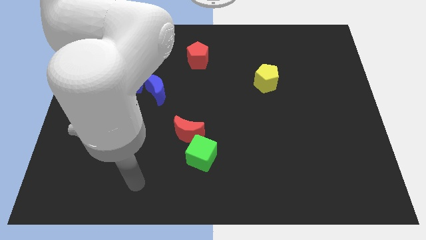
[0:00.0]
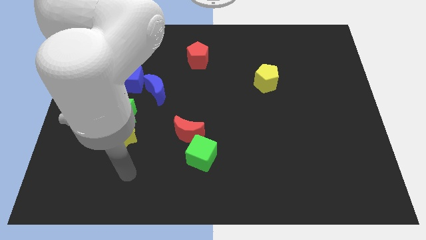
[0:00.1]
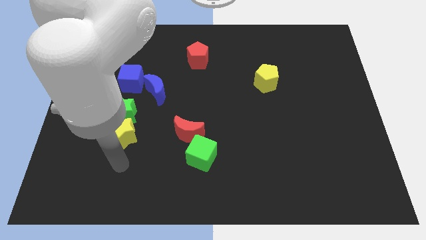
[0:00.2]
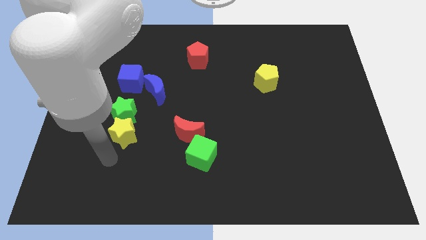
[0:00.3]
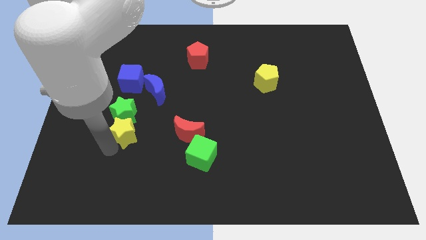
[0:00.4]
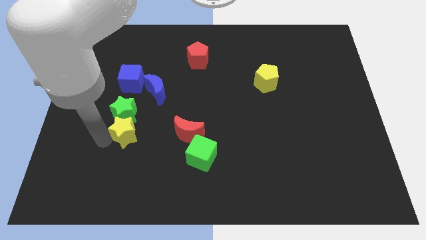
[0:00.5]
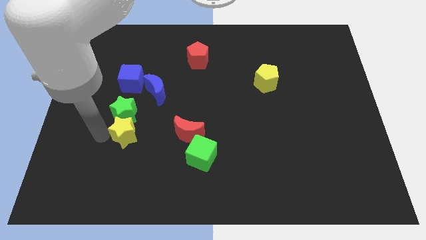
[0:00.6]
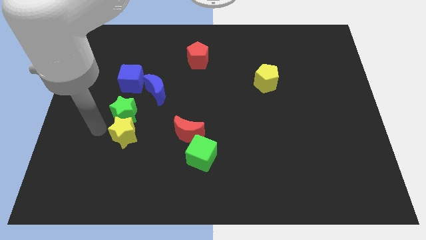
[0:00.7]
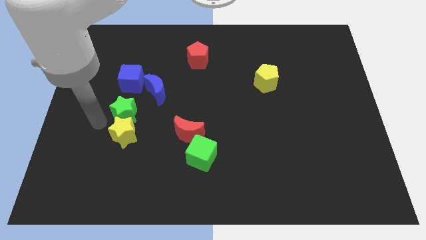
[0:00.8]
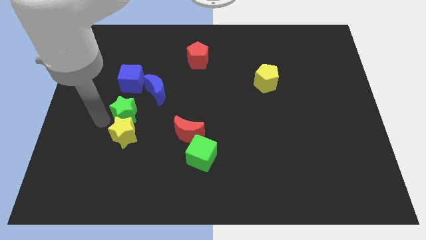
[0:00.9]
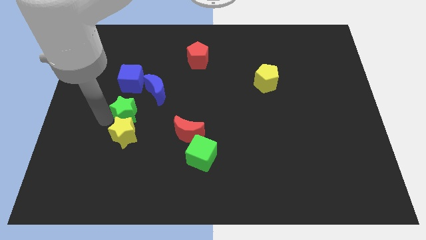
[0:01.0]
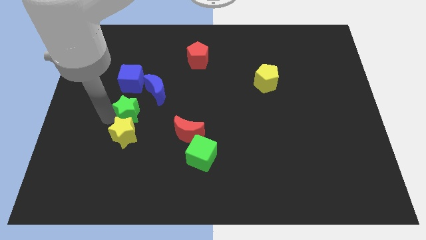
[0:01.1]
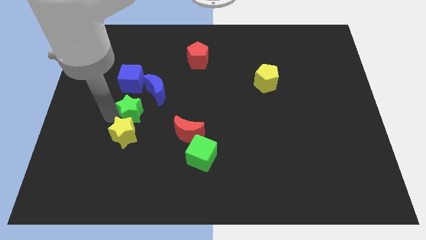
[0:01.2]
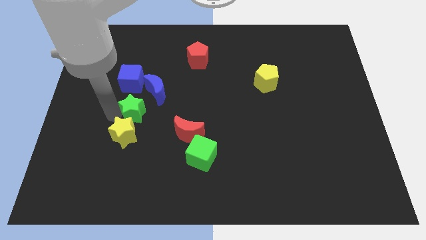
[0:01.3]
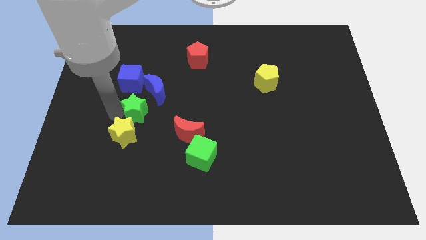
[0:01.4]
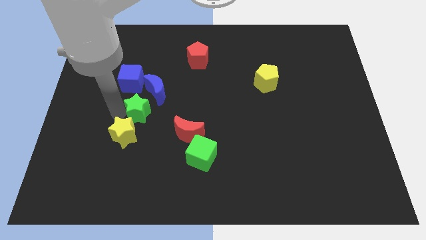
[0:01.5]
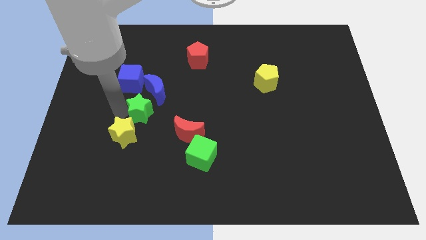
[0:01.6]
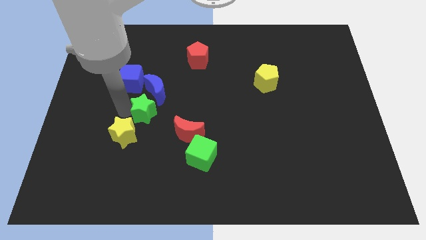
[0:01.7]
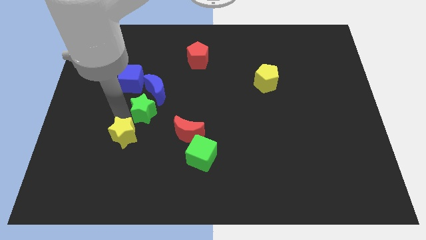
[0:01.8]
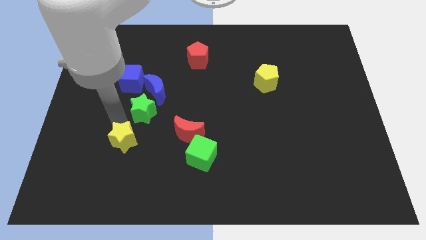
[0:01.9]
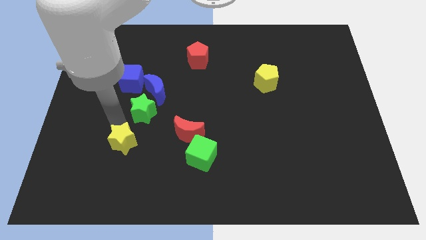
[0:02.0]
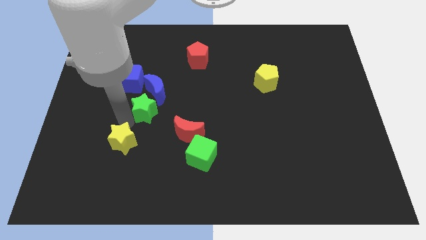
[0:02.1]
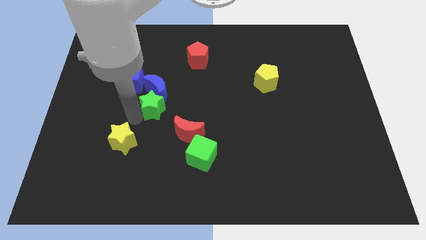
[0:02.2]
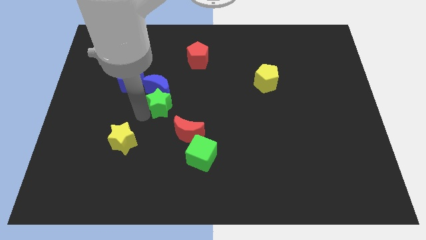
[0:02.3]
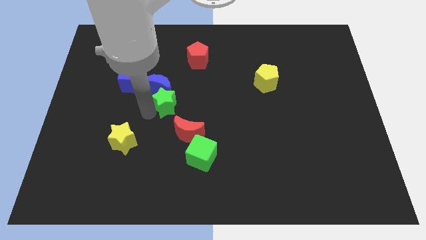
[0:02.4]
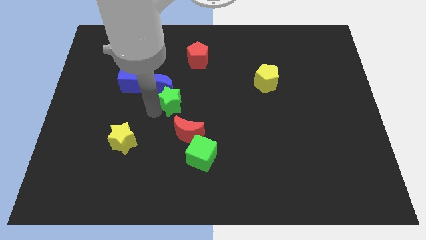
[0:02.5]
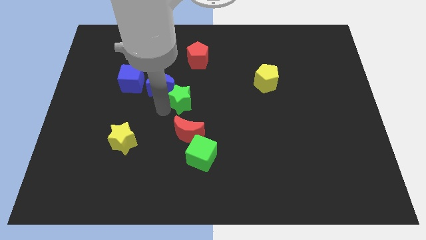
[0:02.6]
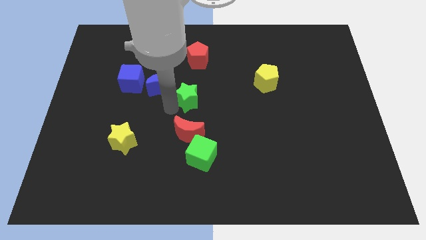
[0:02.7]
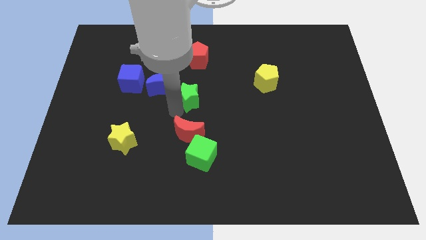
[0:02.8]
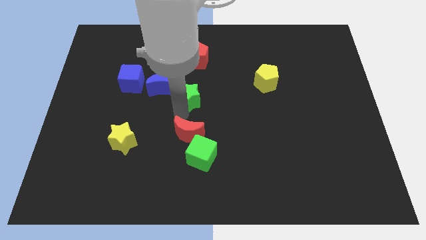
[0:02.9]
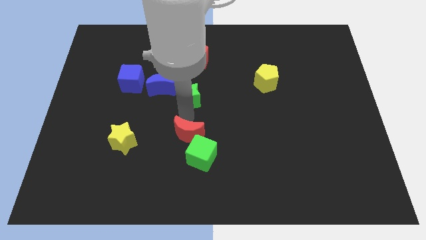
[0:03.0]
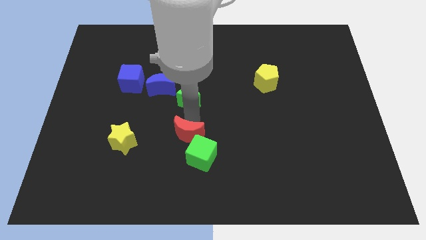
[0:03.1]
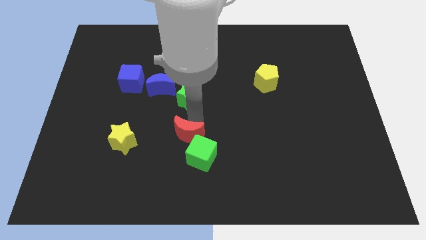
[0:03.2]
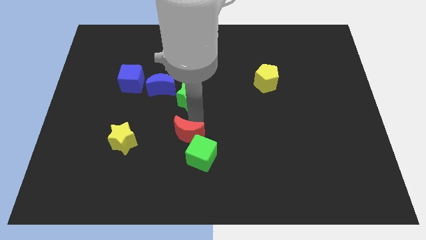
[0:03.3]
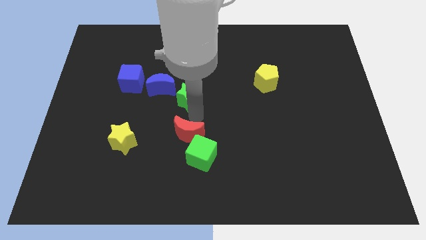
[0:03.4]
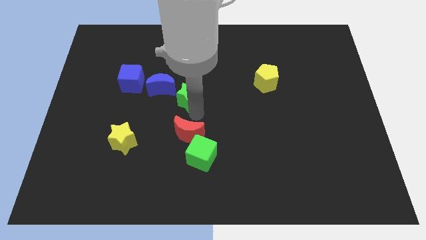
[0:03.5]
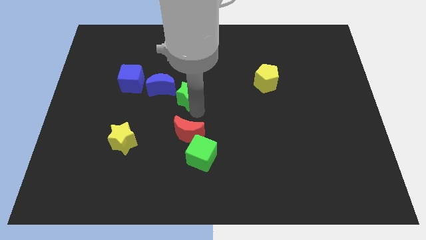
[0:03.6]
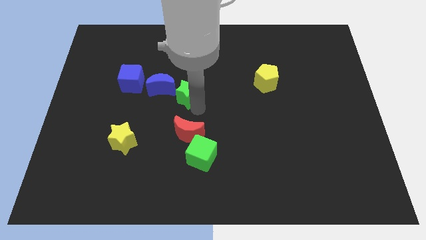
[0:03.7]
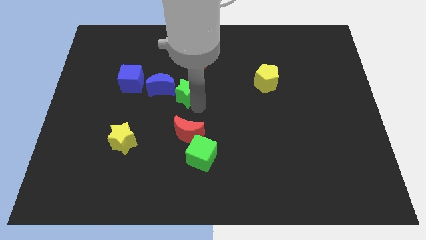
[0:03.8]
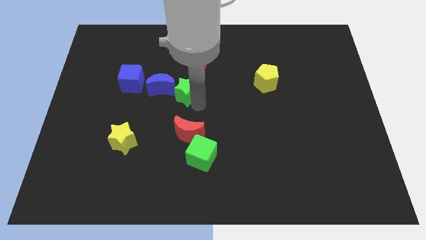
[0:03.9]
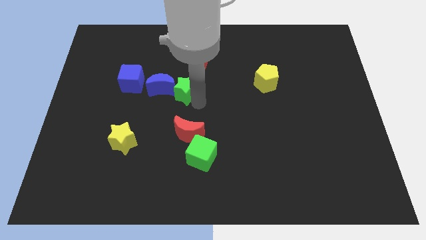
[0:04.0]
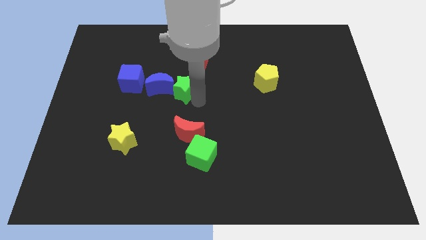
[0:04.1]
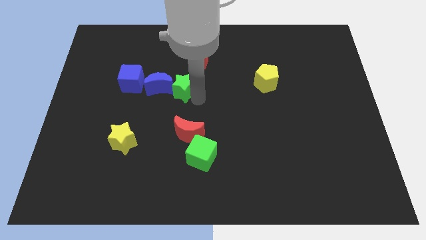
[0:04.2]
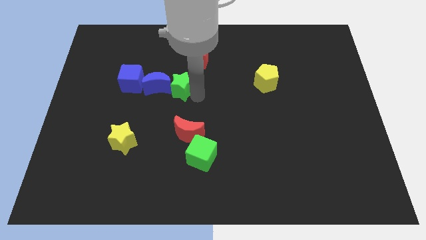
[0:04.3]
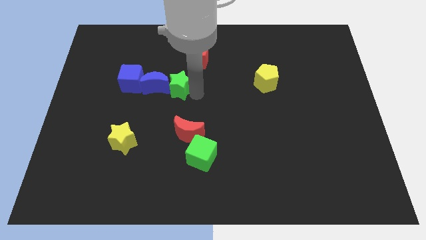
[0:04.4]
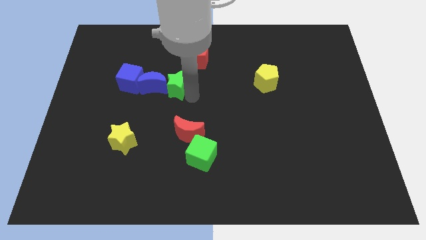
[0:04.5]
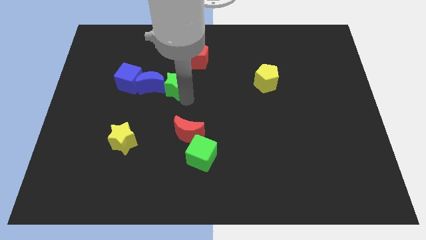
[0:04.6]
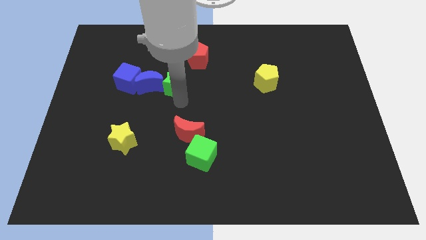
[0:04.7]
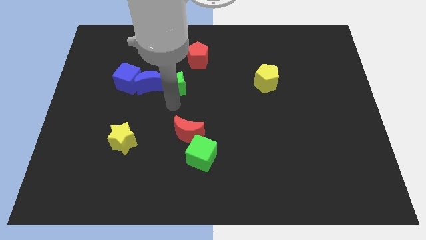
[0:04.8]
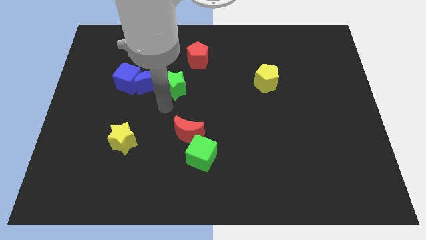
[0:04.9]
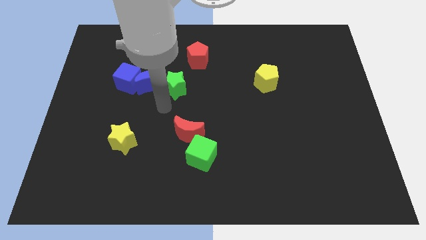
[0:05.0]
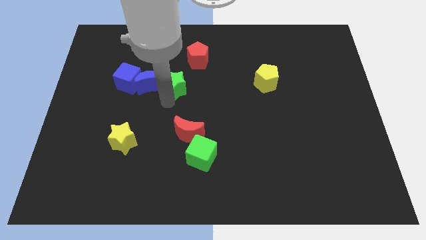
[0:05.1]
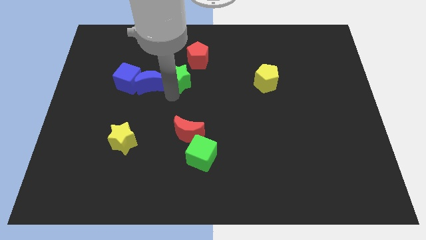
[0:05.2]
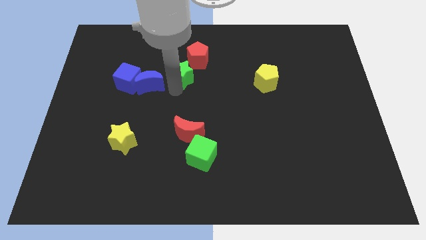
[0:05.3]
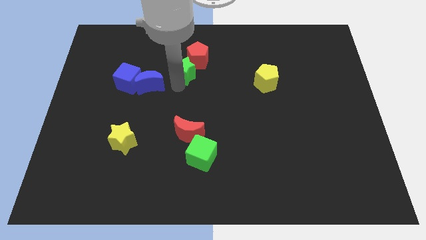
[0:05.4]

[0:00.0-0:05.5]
put the green star towards the red pentagon

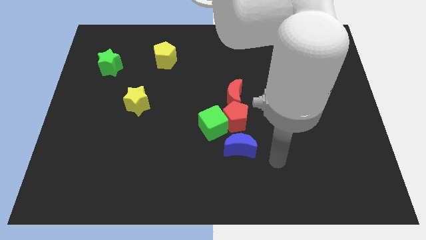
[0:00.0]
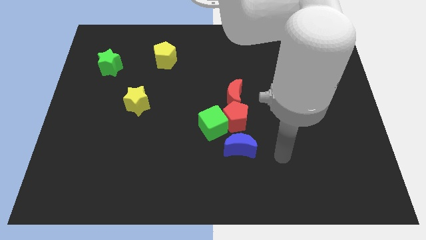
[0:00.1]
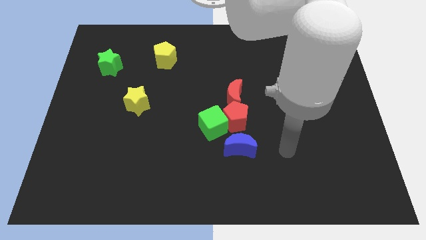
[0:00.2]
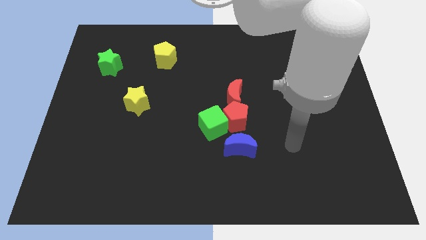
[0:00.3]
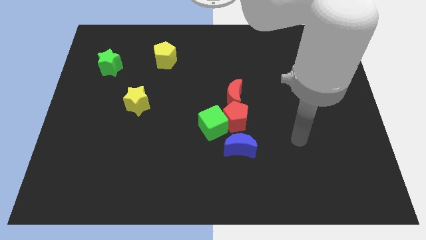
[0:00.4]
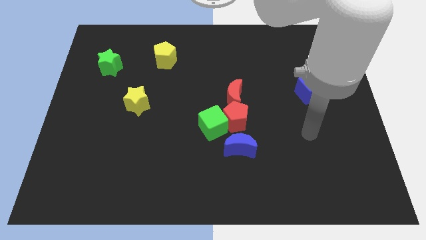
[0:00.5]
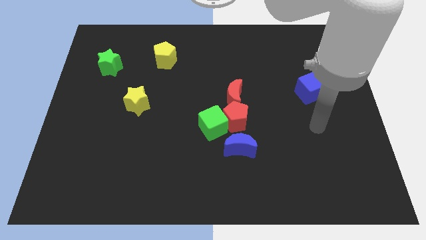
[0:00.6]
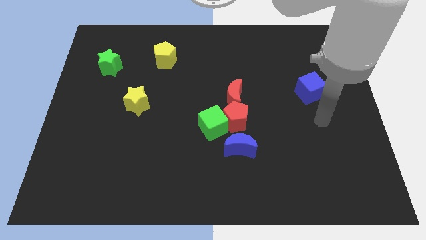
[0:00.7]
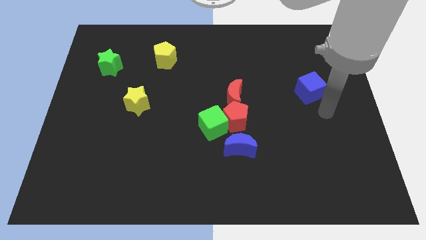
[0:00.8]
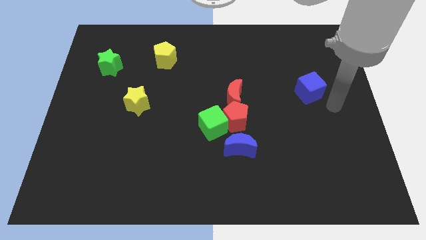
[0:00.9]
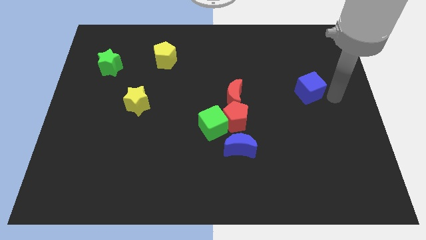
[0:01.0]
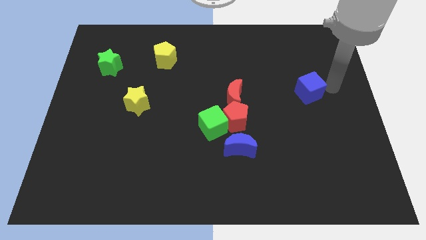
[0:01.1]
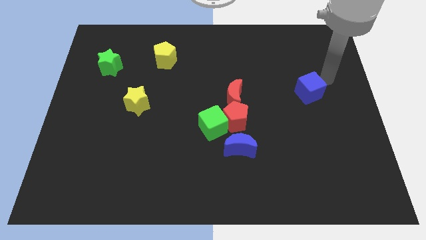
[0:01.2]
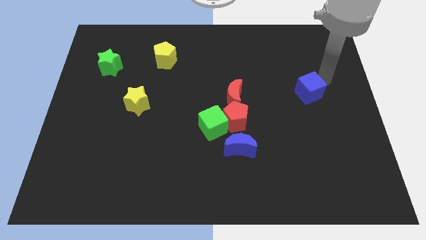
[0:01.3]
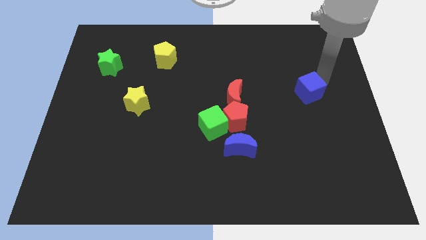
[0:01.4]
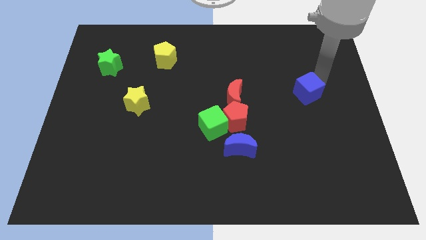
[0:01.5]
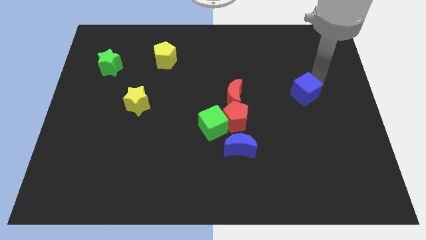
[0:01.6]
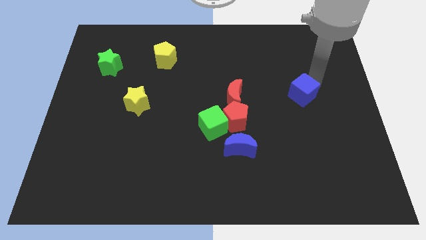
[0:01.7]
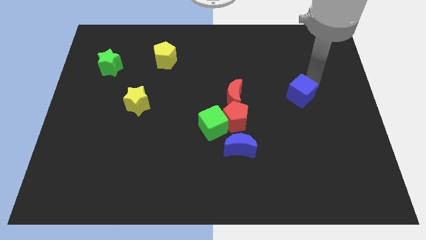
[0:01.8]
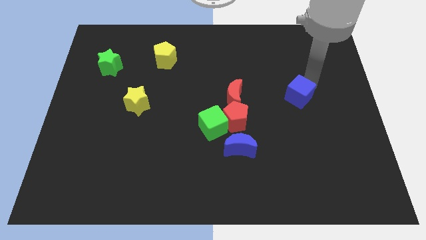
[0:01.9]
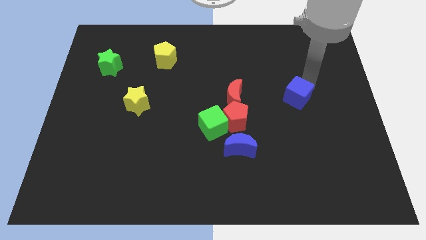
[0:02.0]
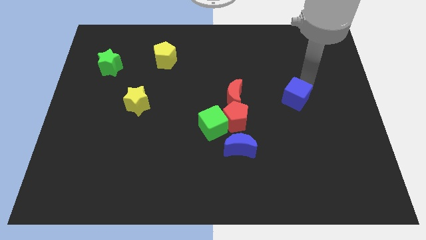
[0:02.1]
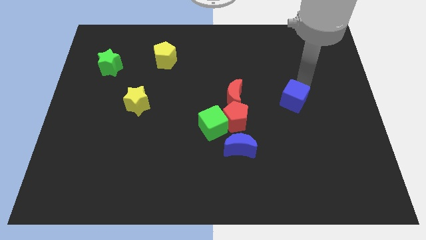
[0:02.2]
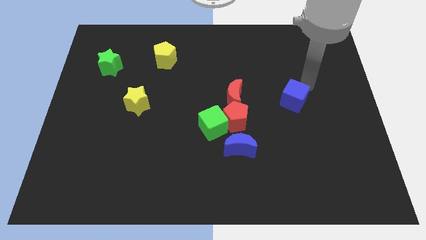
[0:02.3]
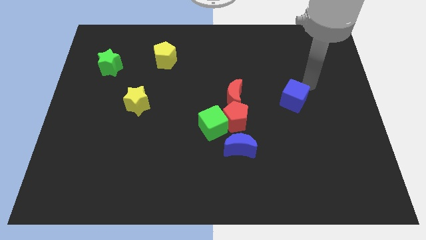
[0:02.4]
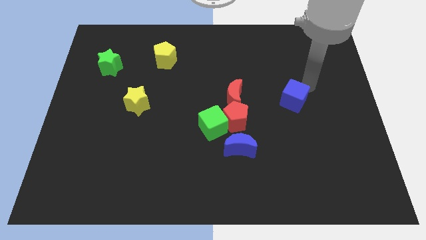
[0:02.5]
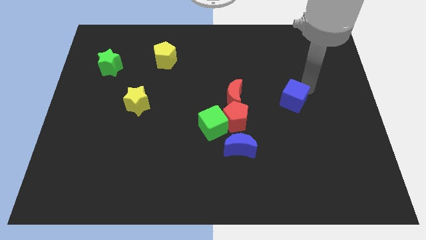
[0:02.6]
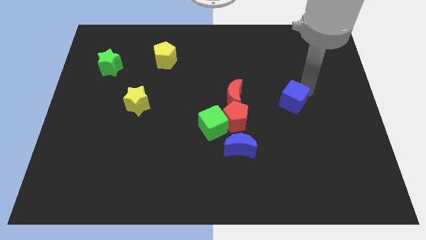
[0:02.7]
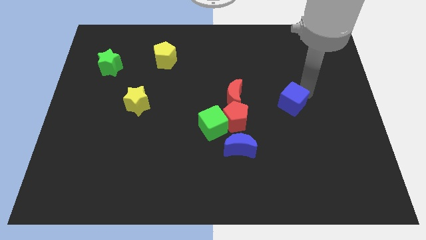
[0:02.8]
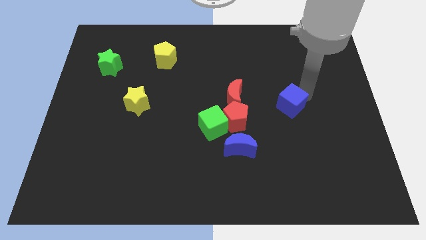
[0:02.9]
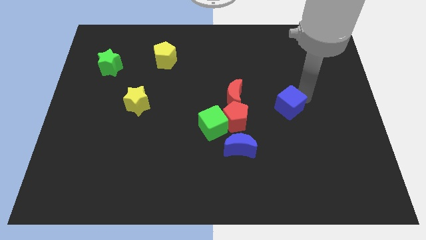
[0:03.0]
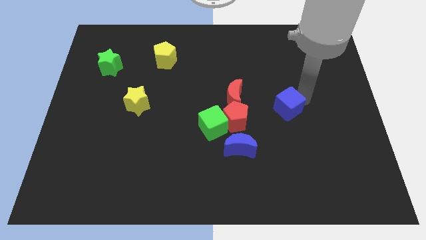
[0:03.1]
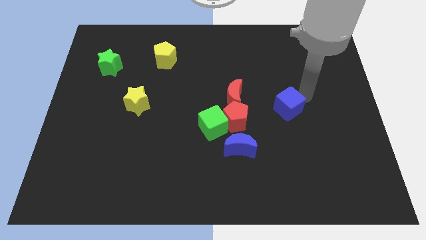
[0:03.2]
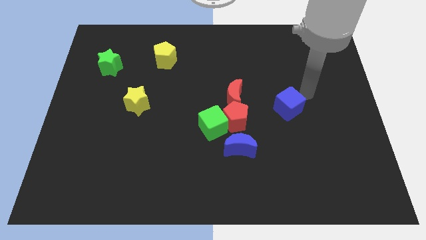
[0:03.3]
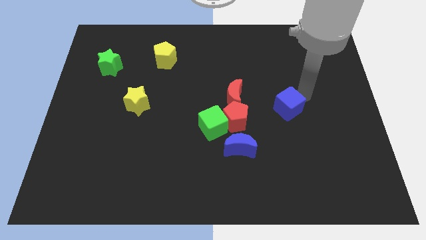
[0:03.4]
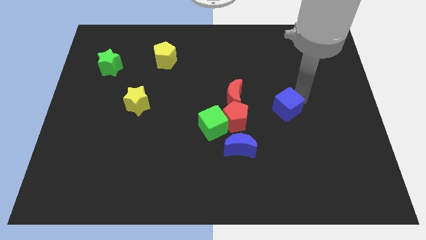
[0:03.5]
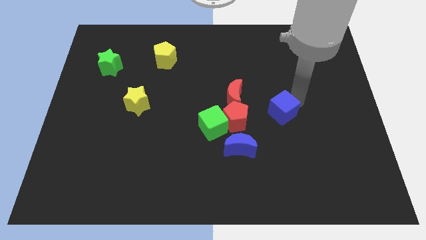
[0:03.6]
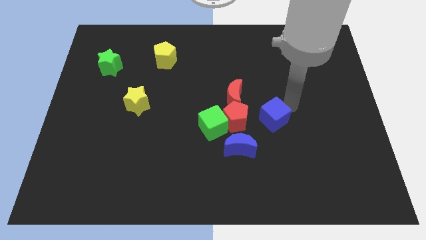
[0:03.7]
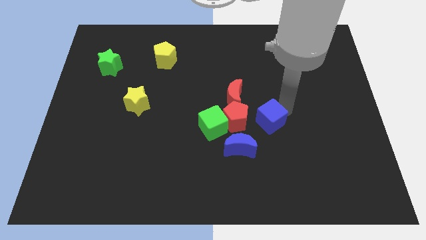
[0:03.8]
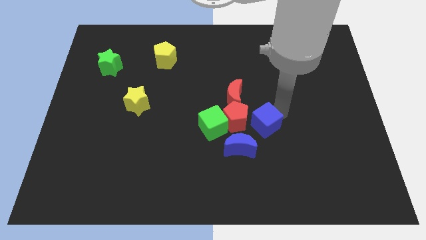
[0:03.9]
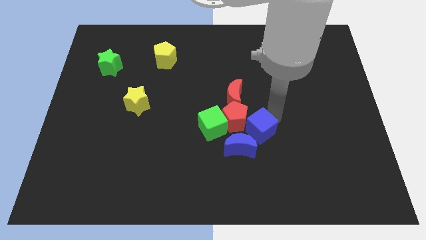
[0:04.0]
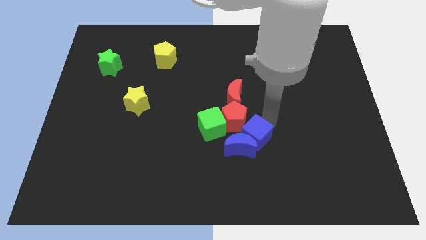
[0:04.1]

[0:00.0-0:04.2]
put the blue cube close to the blue moon
